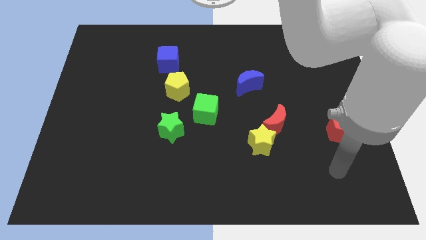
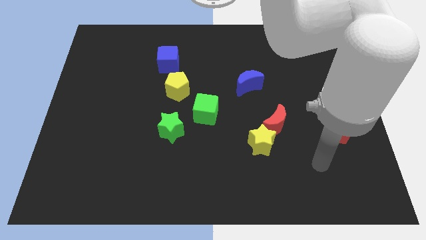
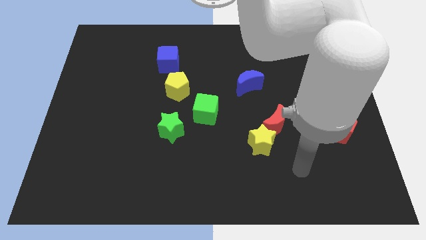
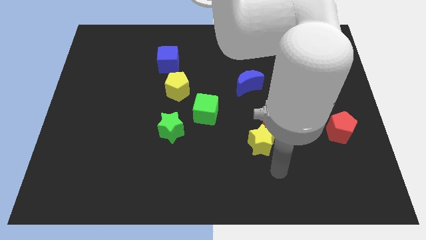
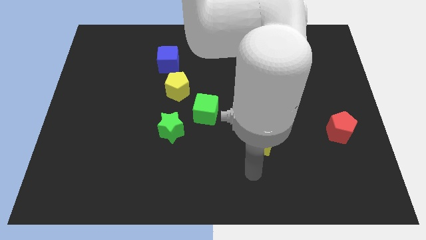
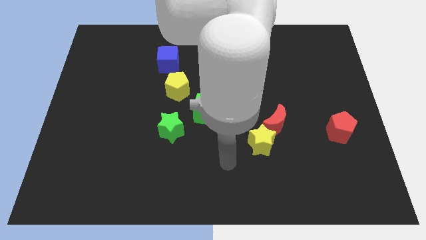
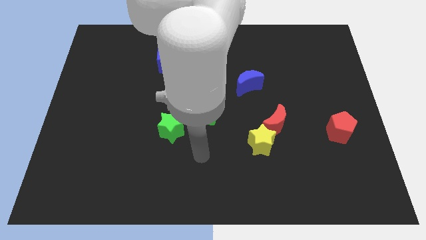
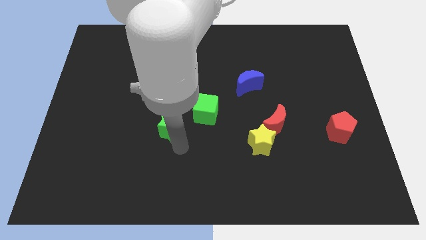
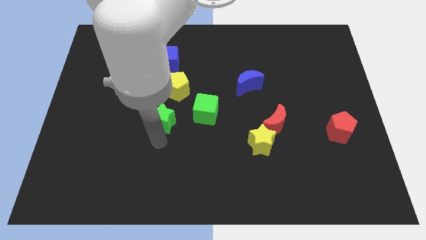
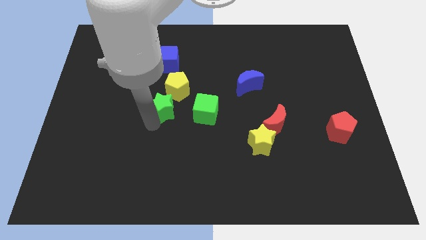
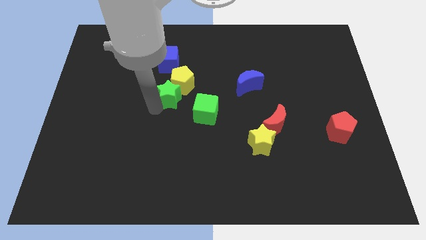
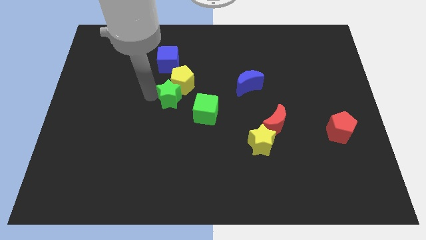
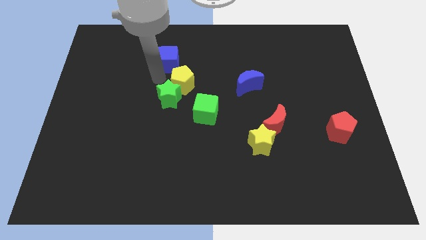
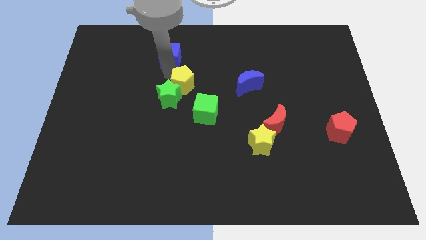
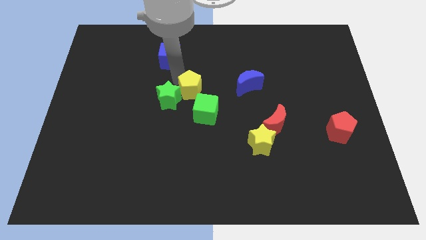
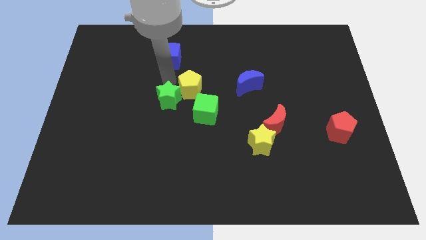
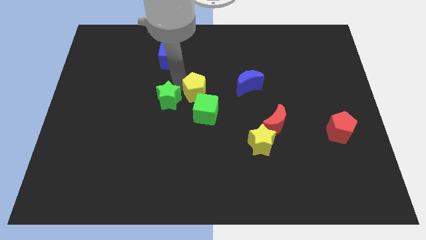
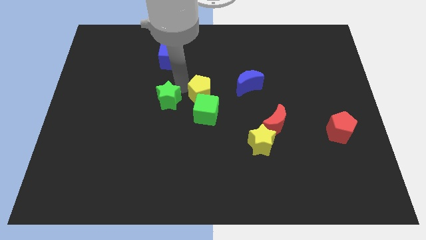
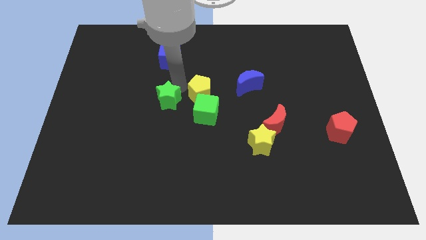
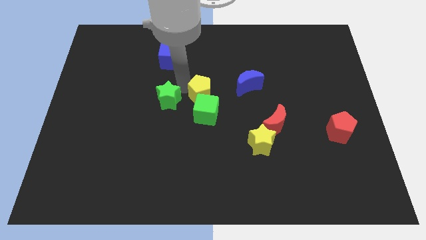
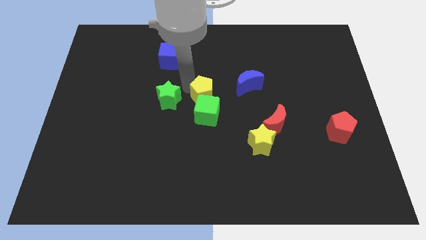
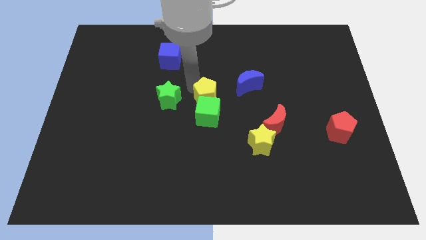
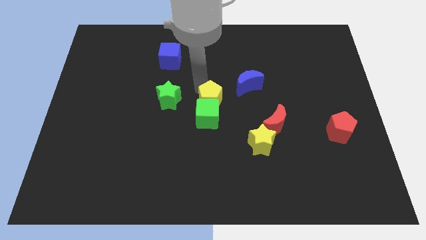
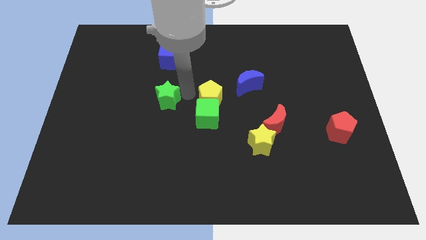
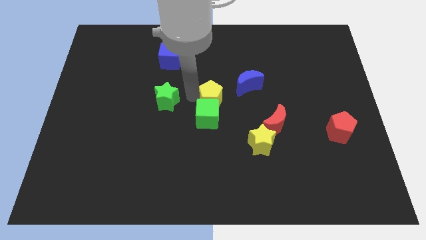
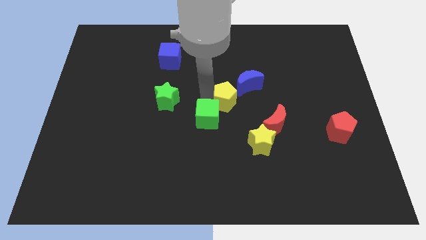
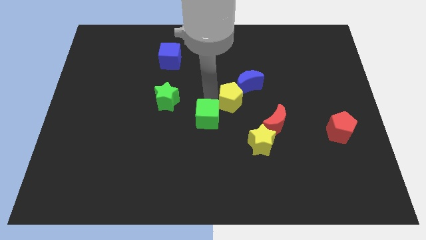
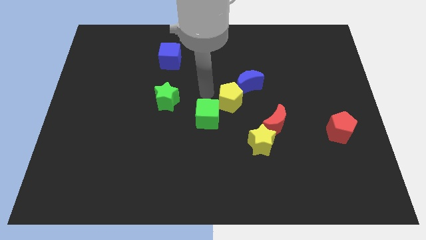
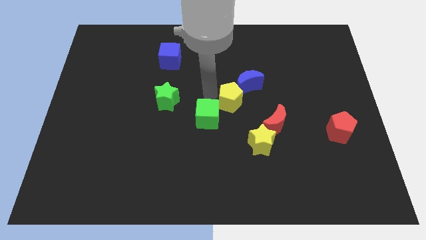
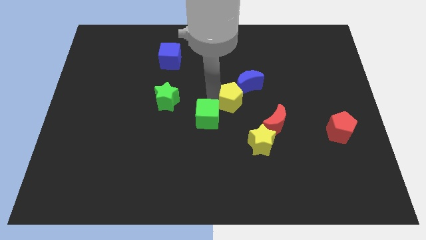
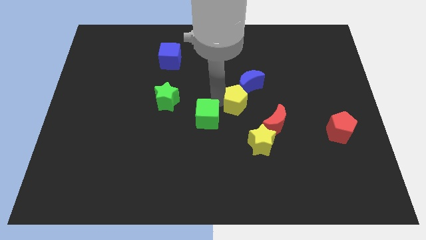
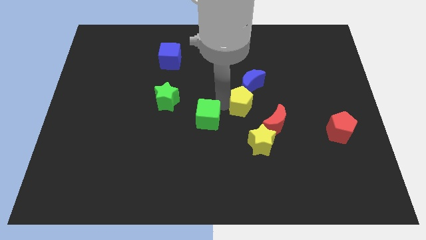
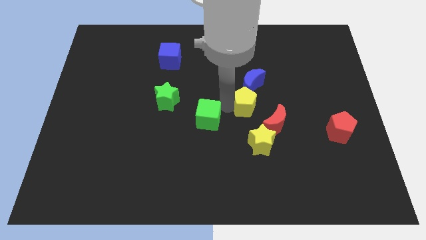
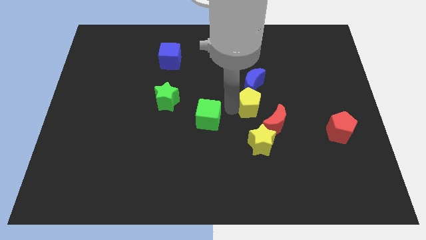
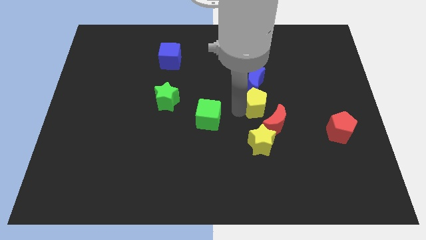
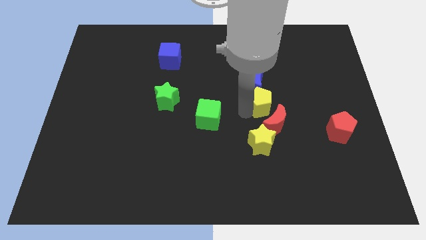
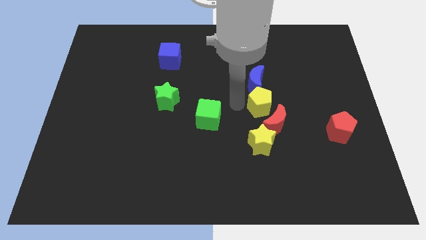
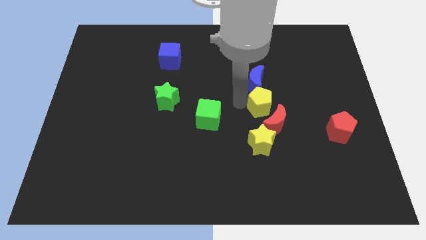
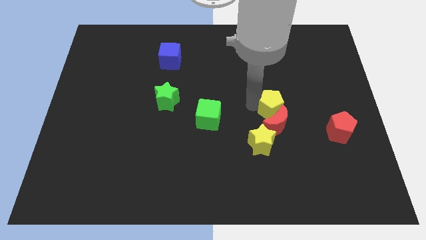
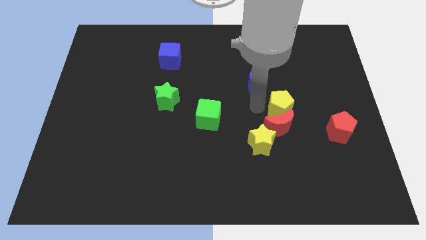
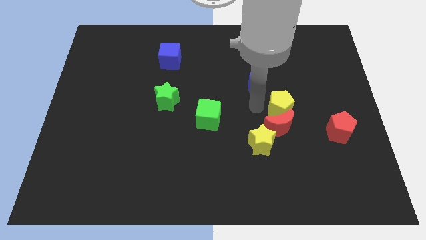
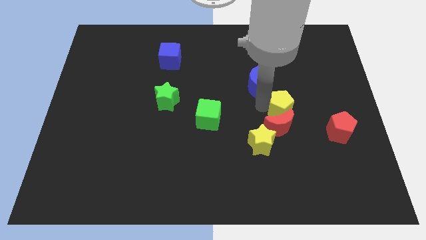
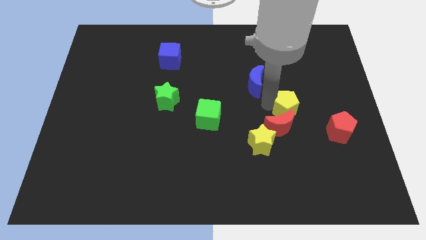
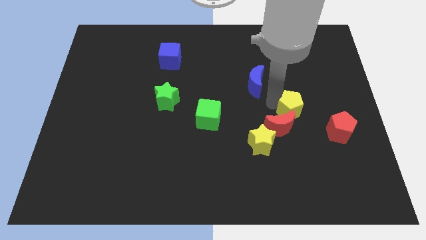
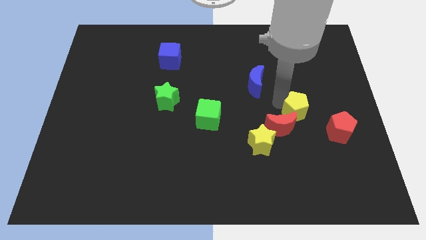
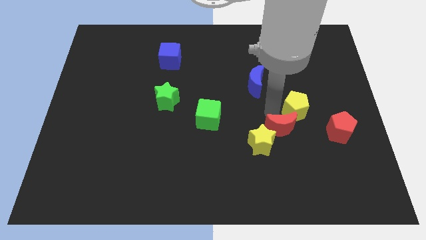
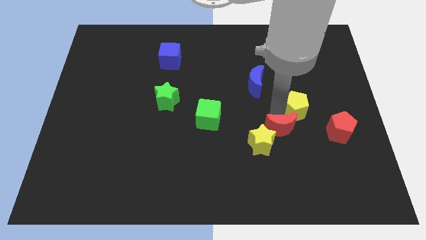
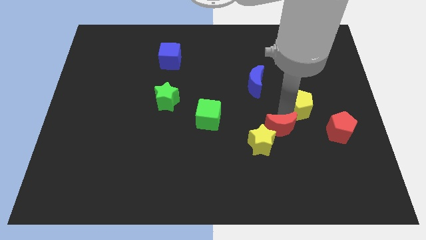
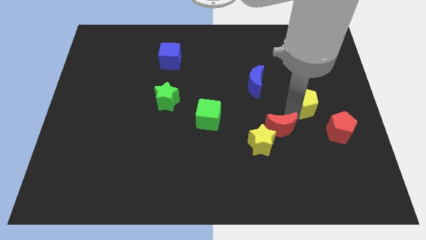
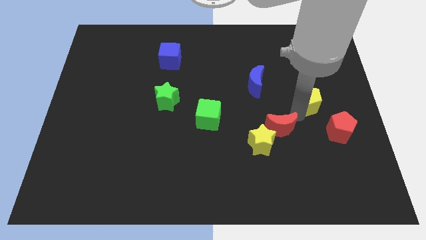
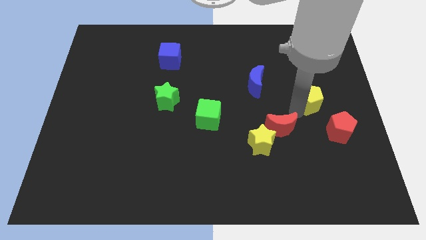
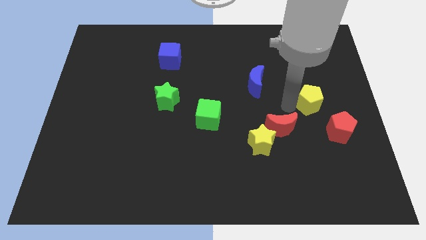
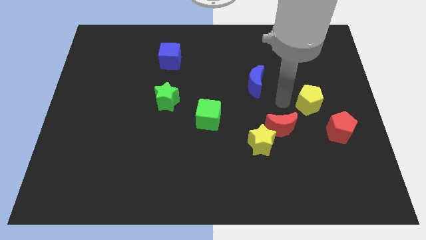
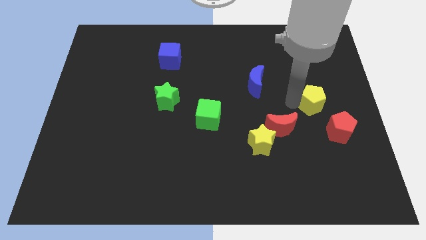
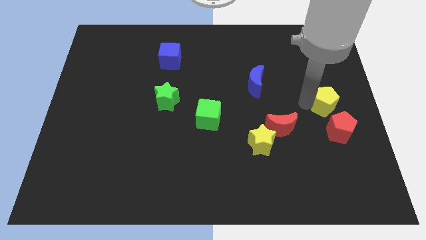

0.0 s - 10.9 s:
slide the yellow pentagon to the right side
